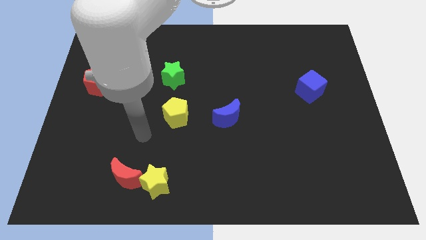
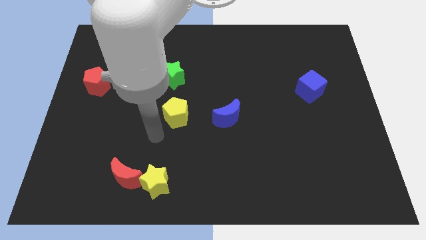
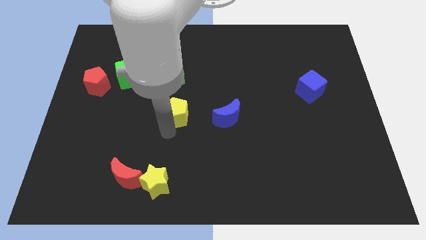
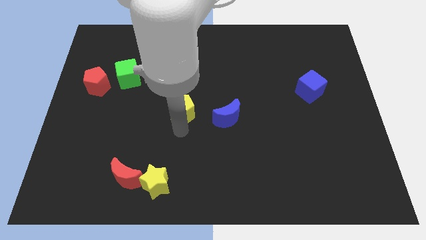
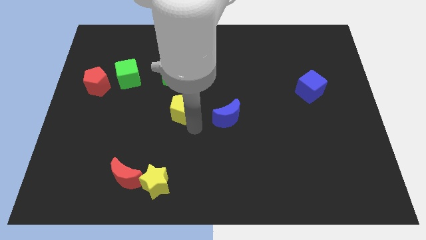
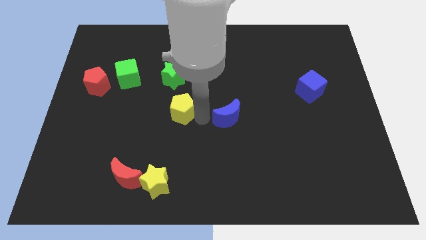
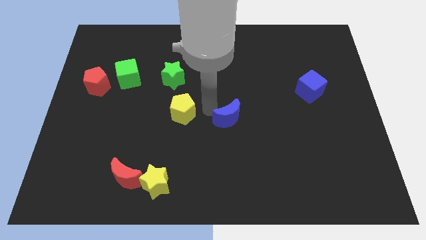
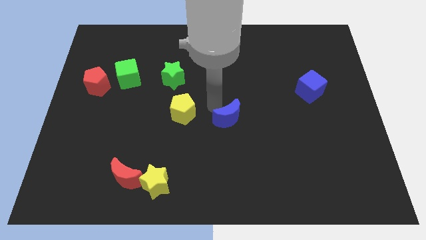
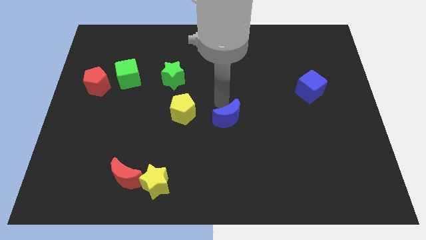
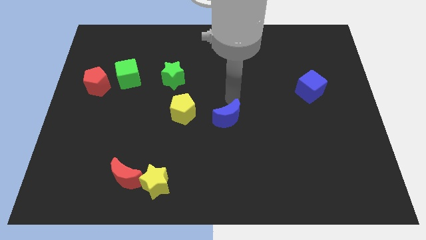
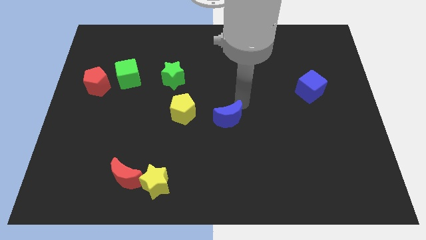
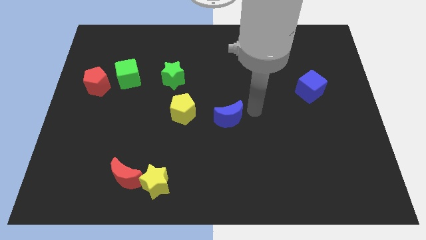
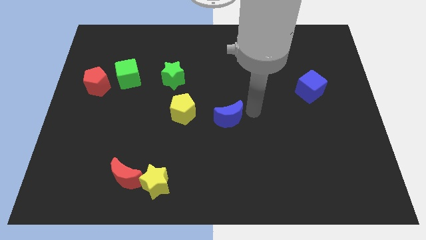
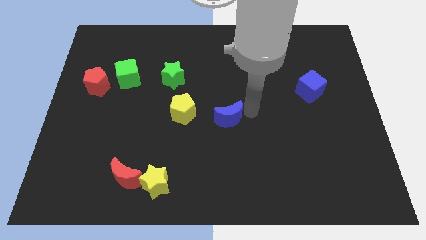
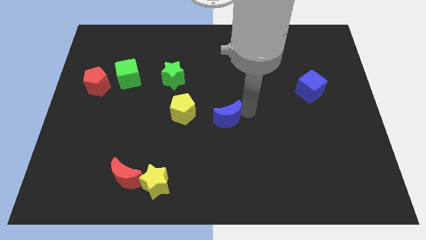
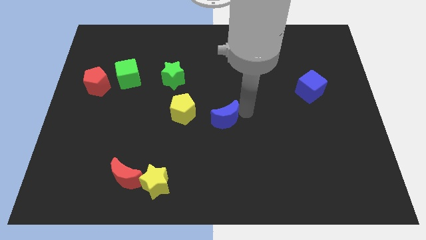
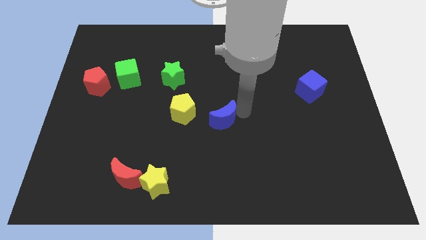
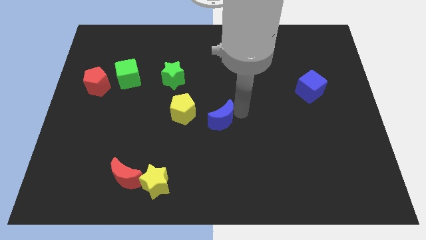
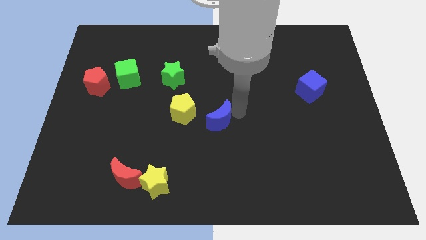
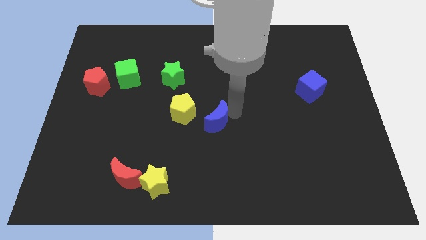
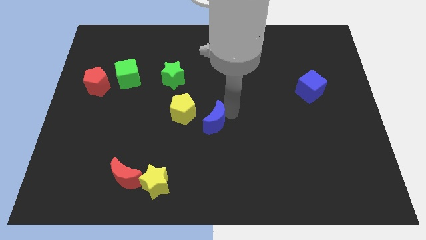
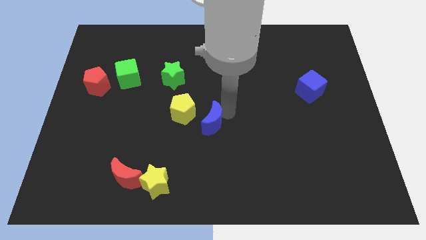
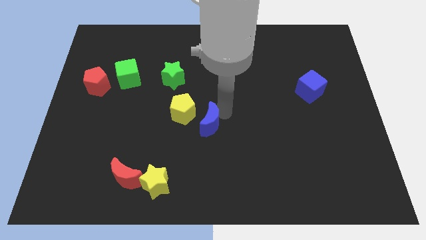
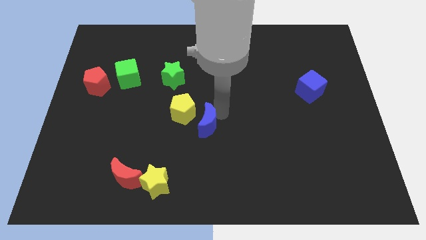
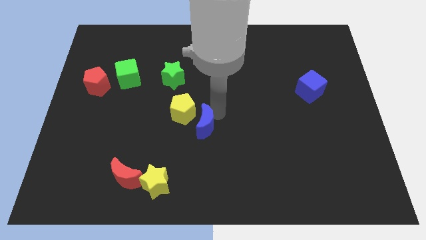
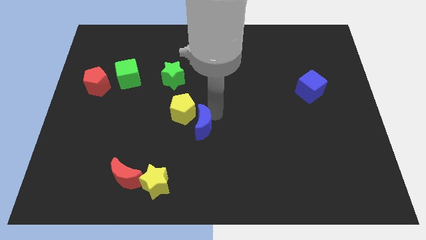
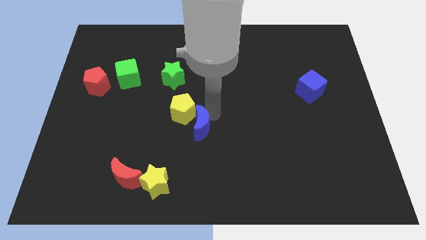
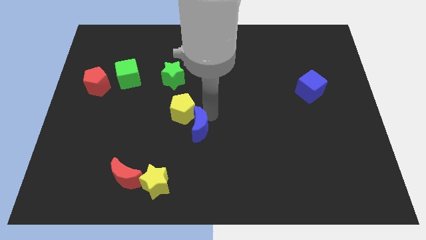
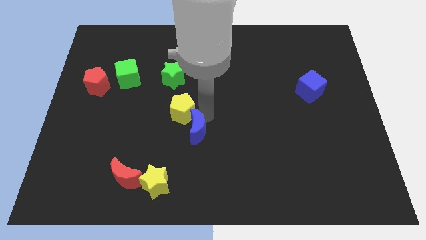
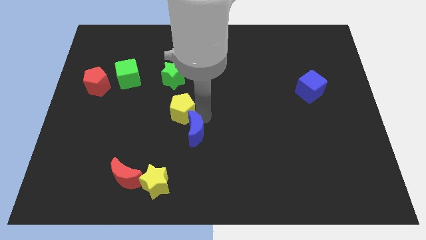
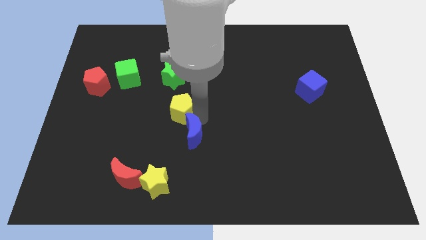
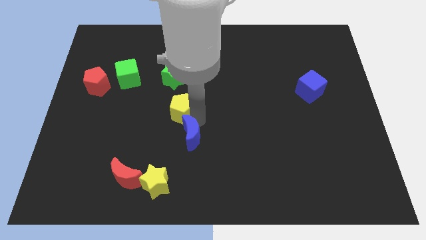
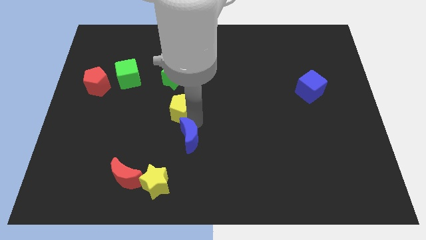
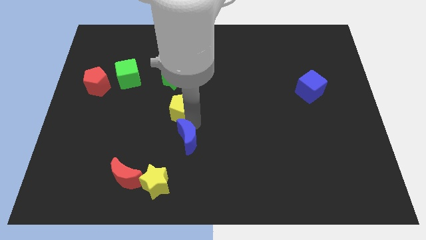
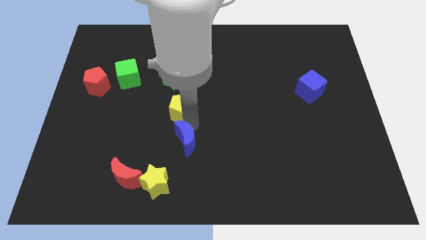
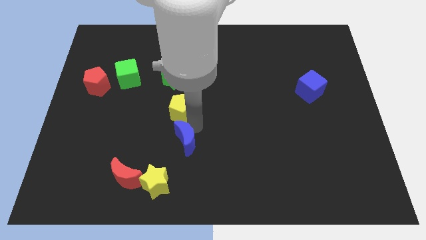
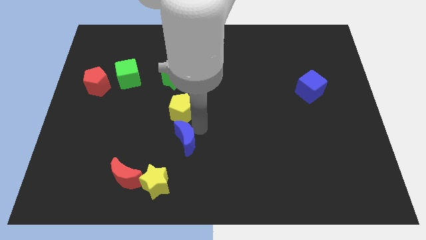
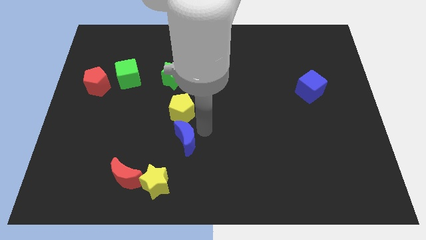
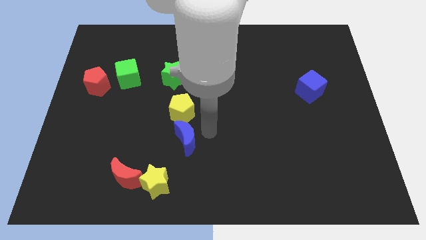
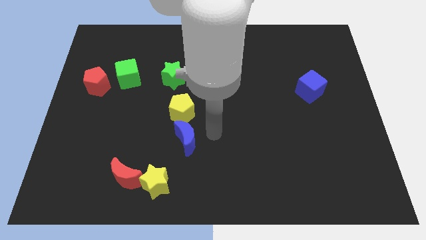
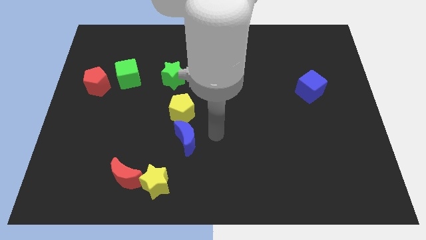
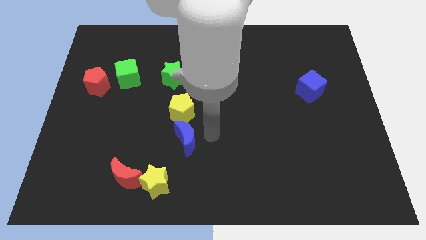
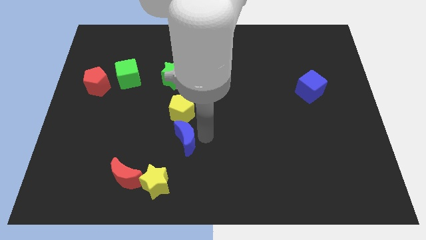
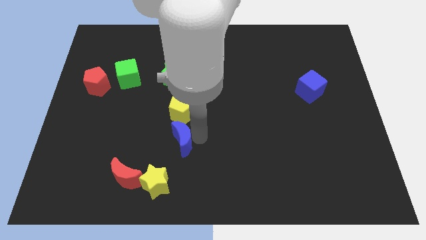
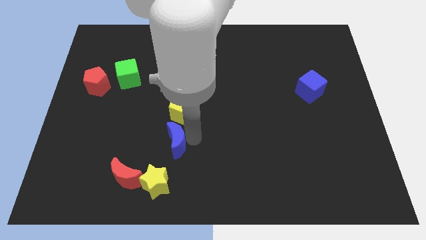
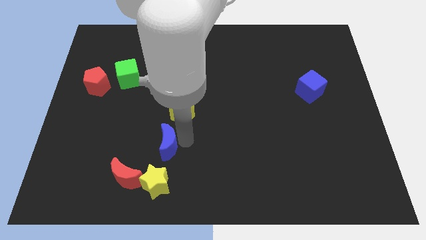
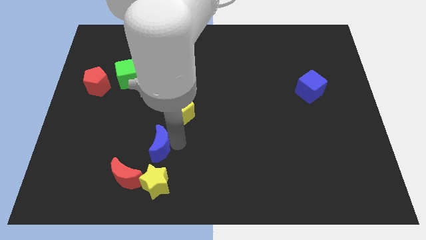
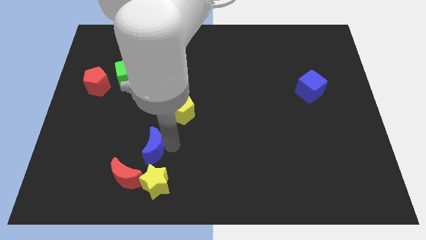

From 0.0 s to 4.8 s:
move the blue moon diagonally up and to the left of the yellow star

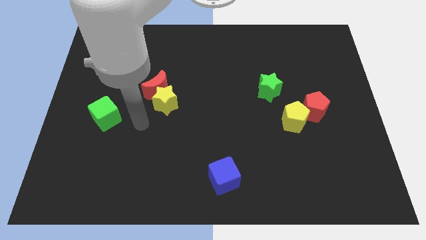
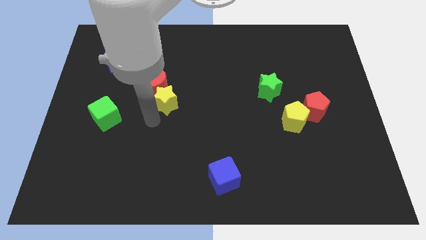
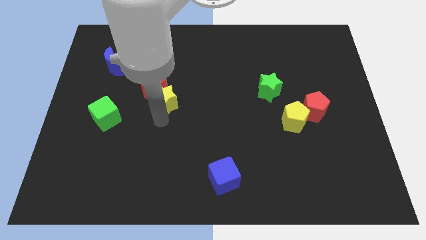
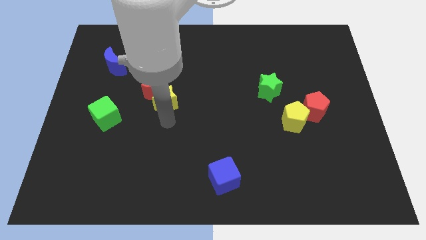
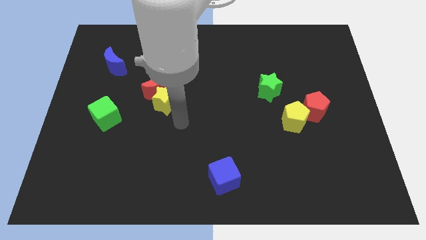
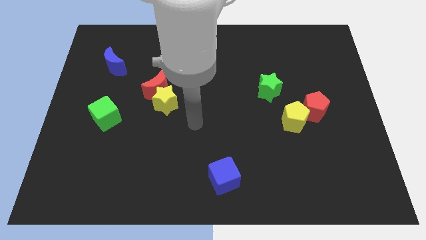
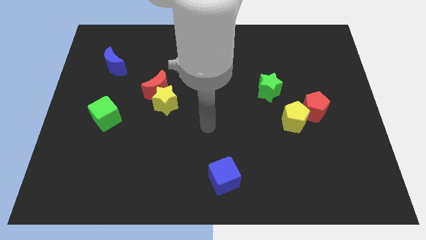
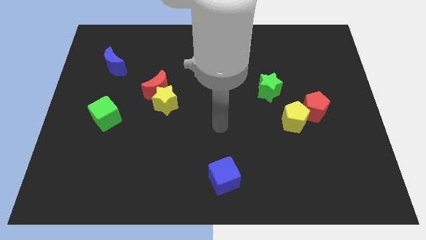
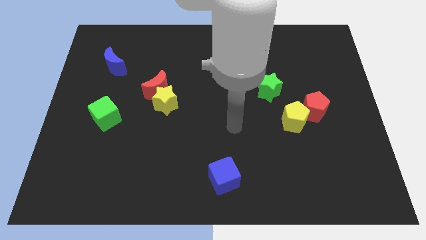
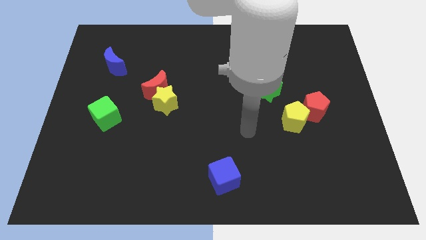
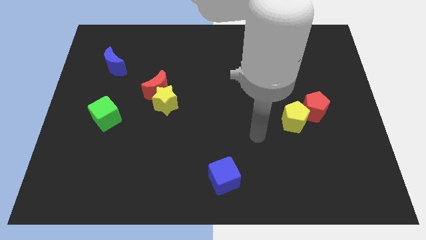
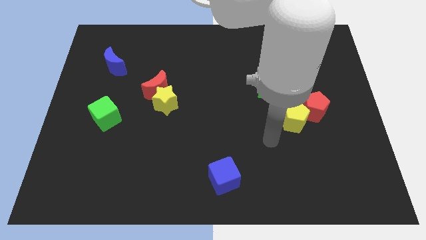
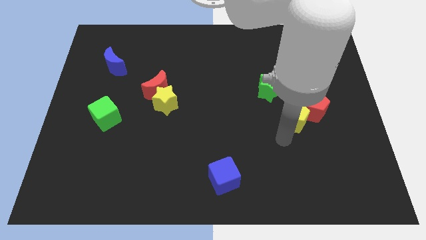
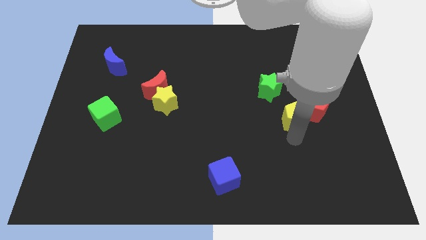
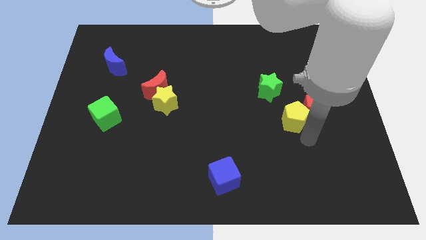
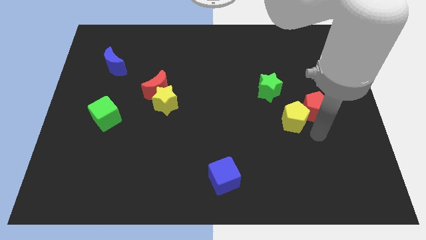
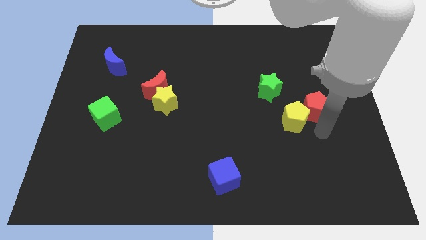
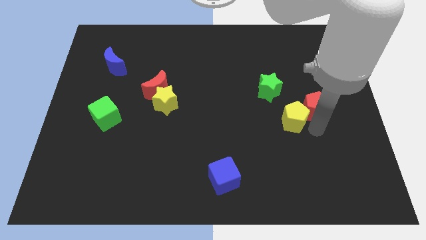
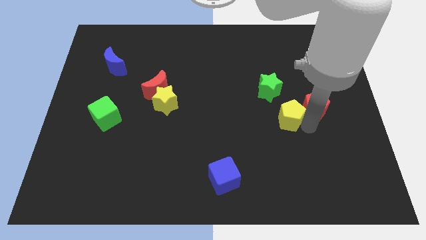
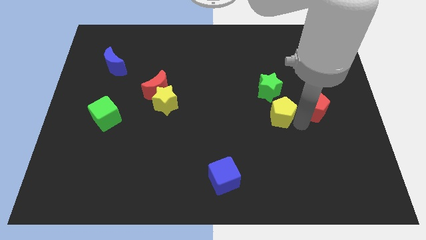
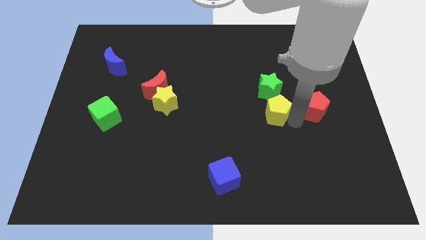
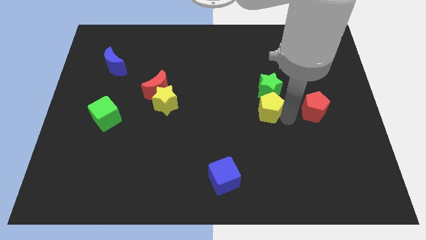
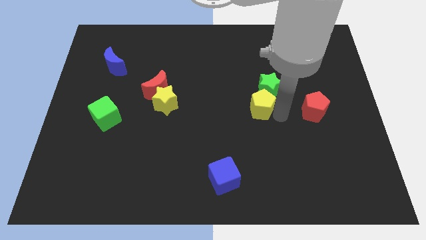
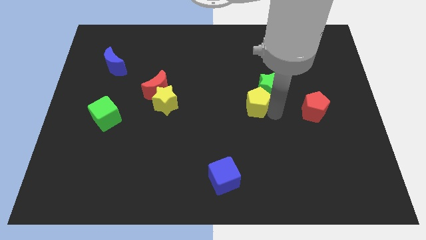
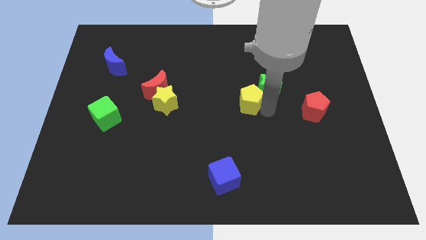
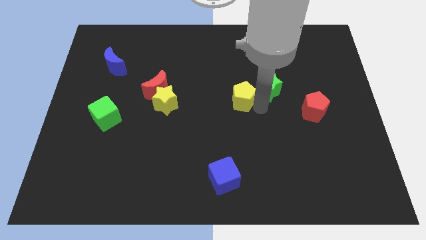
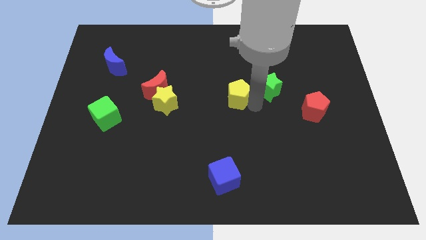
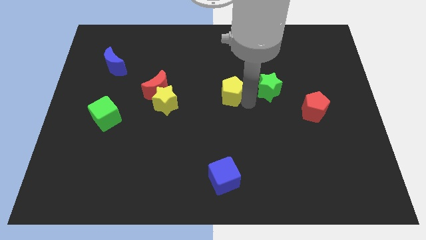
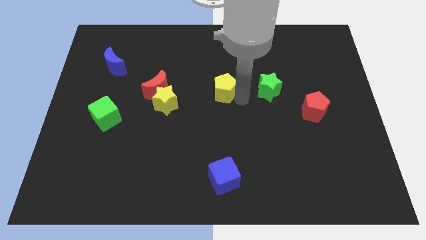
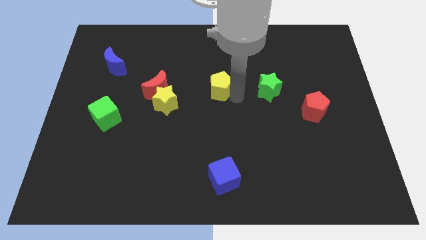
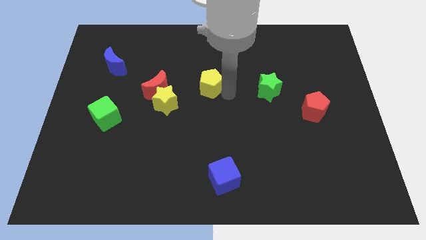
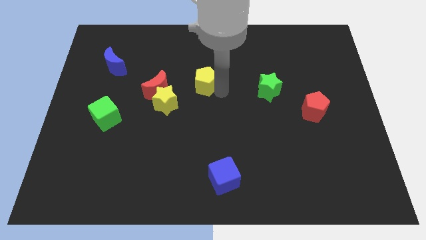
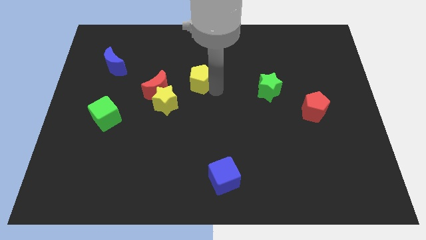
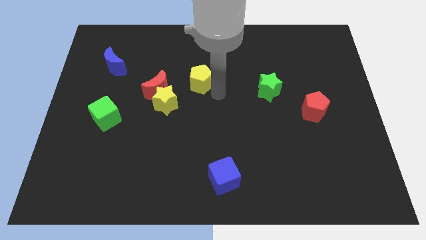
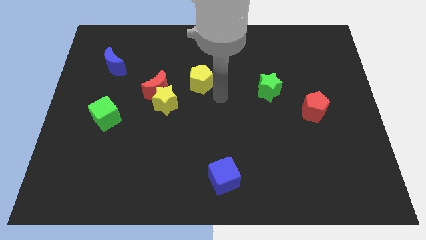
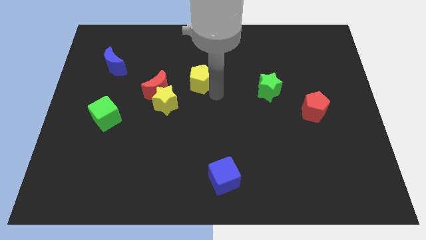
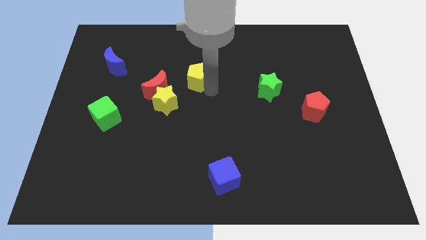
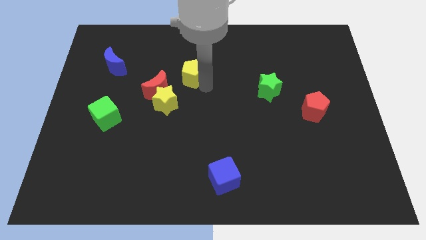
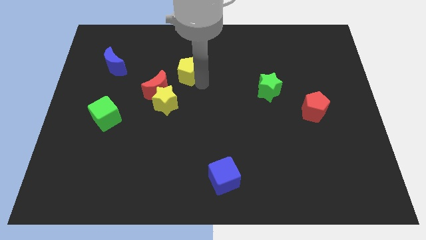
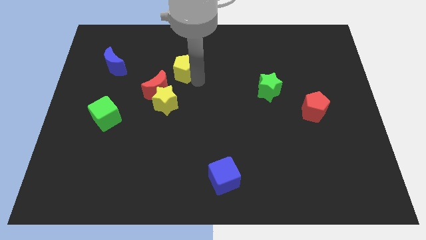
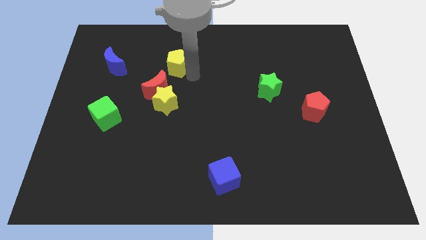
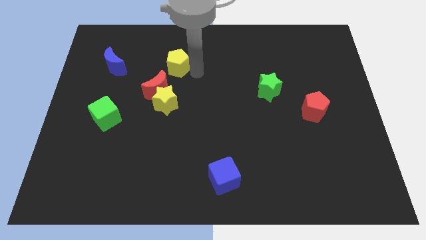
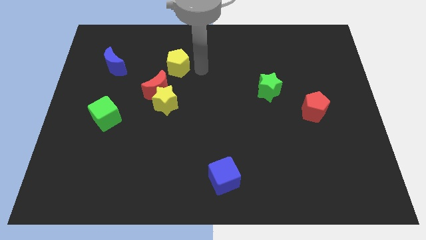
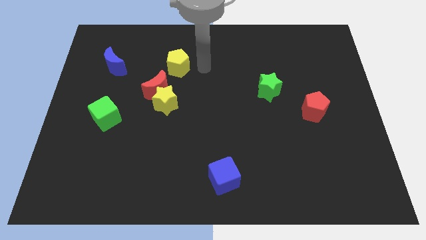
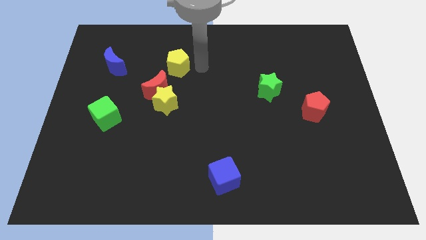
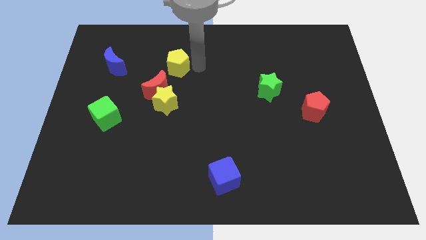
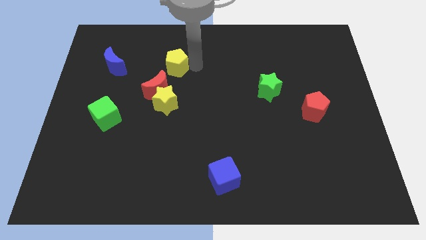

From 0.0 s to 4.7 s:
put the yellow pentagon to the right of the blue moon
